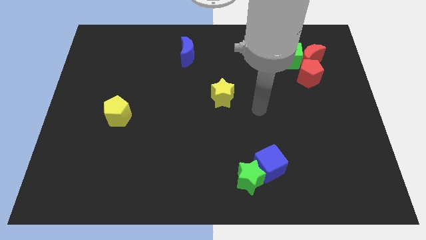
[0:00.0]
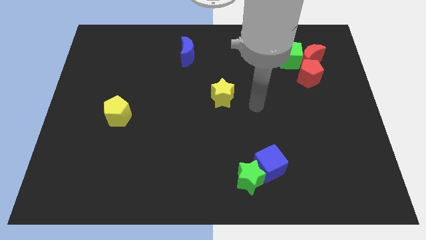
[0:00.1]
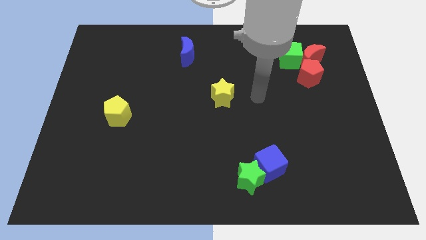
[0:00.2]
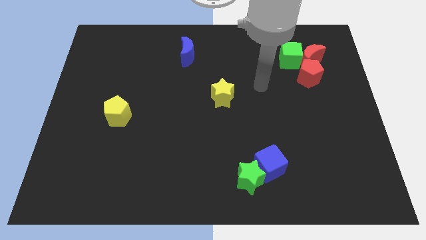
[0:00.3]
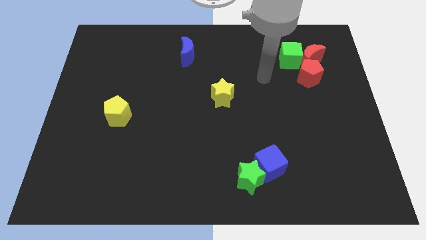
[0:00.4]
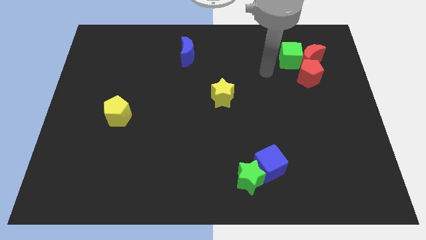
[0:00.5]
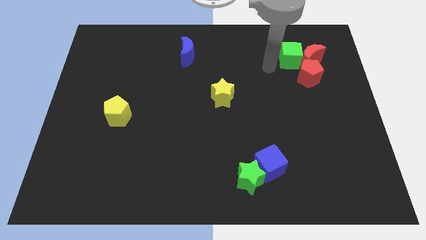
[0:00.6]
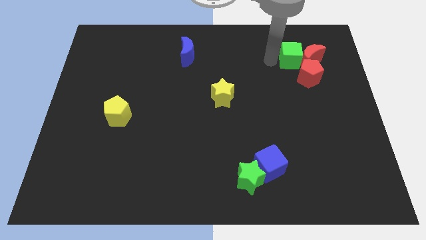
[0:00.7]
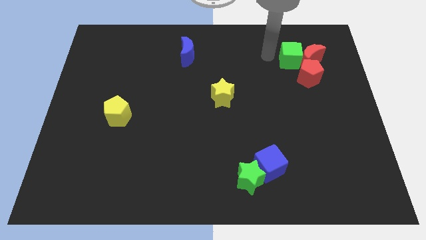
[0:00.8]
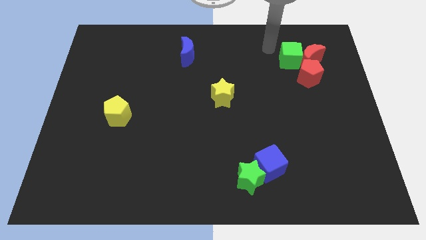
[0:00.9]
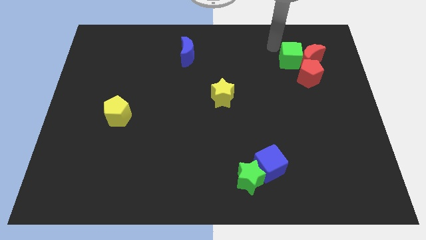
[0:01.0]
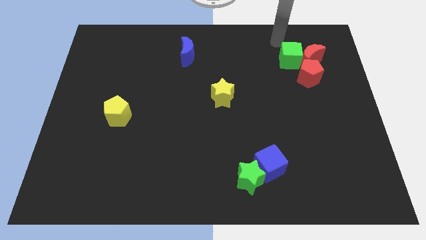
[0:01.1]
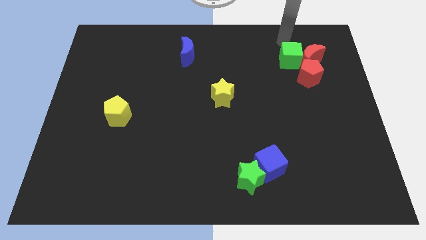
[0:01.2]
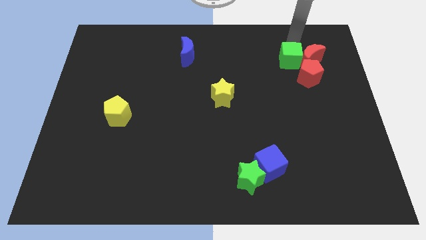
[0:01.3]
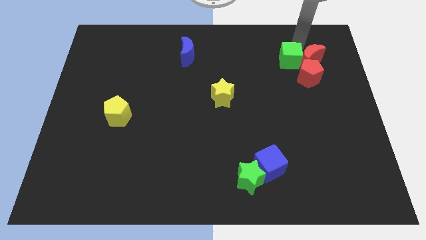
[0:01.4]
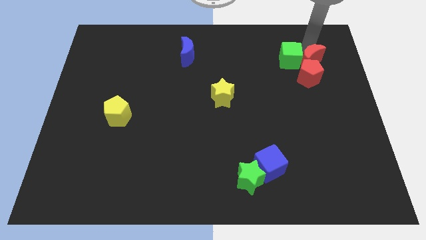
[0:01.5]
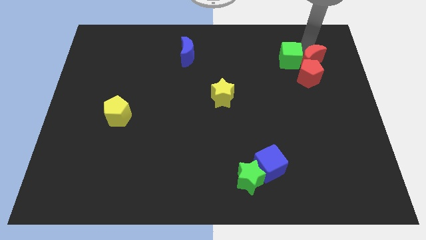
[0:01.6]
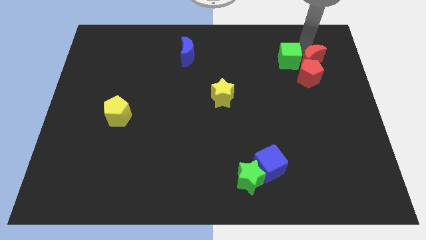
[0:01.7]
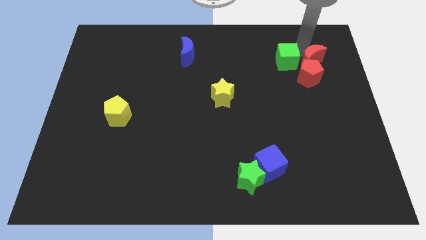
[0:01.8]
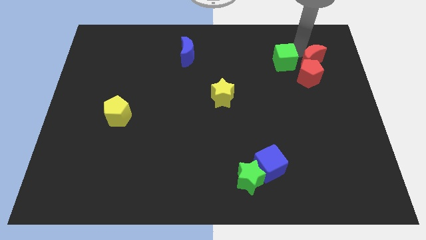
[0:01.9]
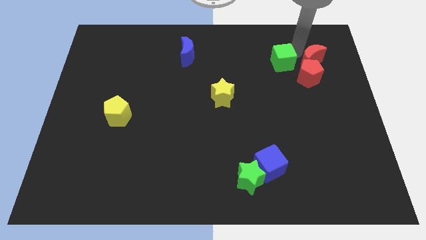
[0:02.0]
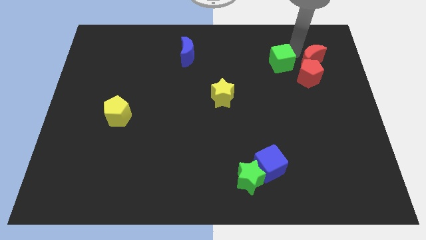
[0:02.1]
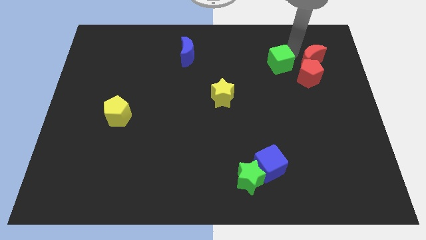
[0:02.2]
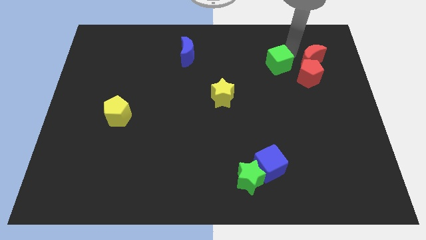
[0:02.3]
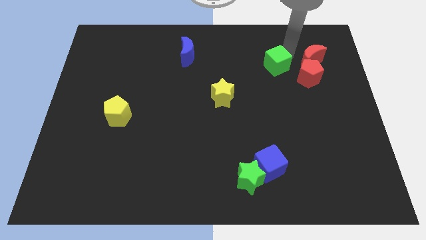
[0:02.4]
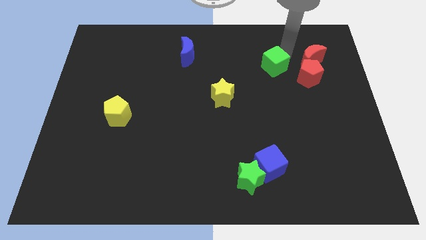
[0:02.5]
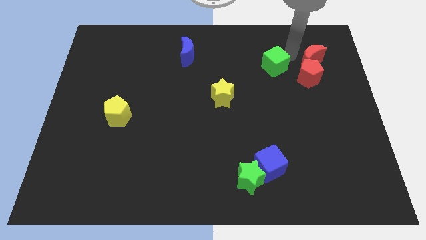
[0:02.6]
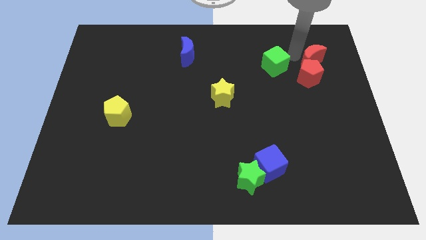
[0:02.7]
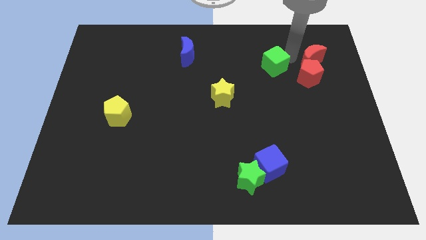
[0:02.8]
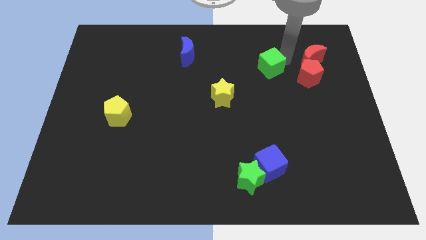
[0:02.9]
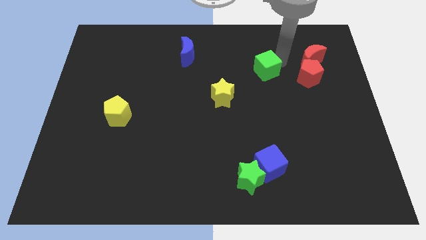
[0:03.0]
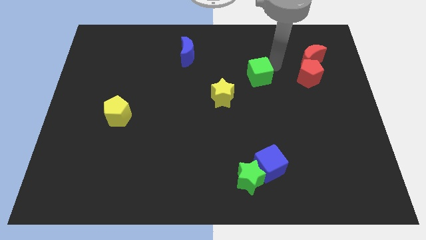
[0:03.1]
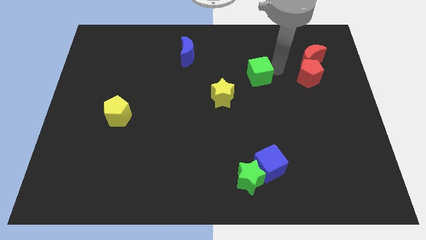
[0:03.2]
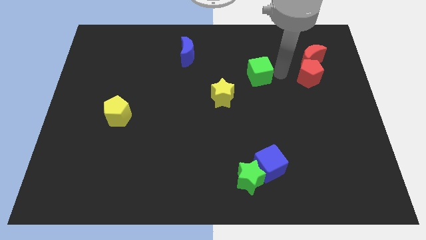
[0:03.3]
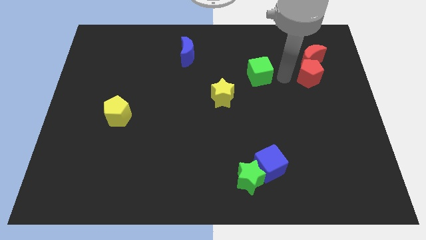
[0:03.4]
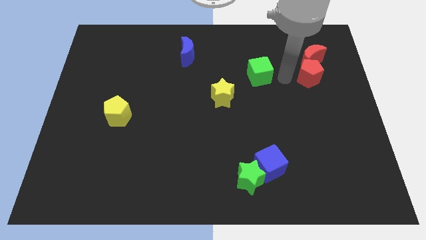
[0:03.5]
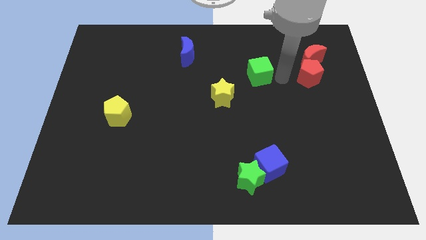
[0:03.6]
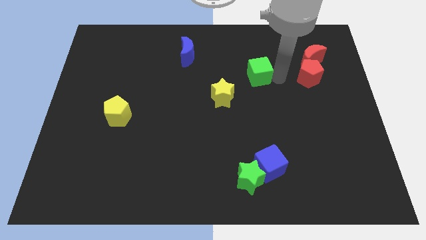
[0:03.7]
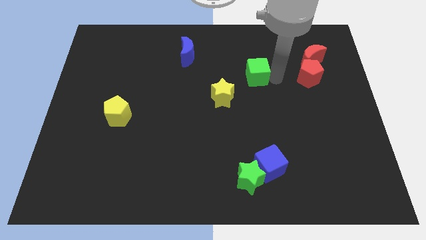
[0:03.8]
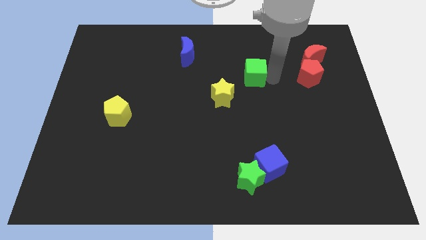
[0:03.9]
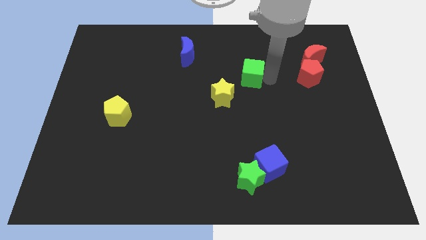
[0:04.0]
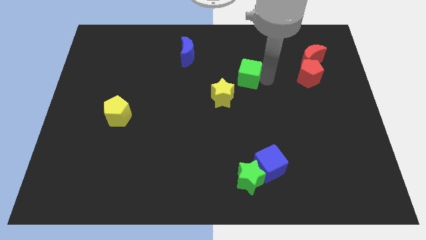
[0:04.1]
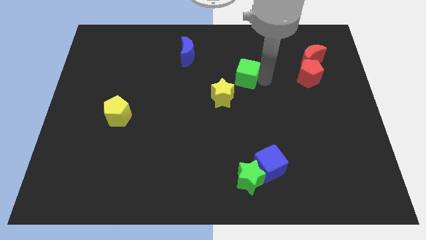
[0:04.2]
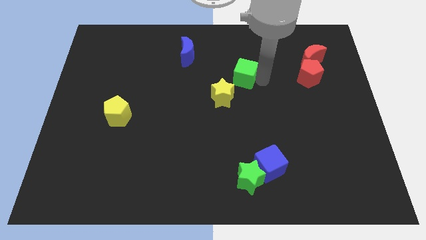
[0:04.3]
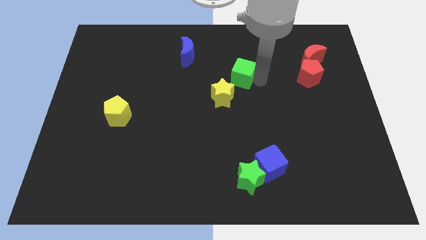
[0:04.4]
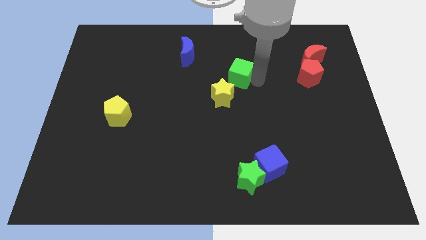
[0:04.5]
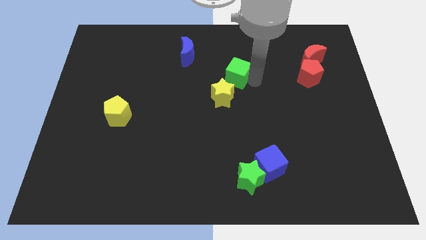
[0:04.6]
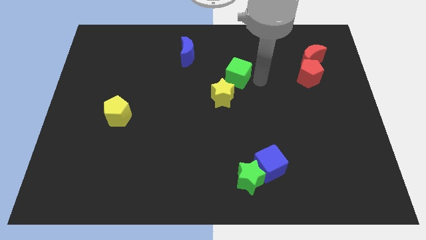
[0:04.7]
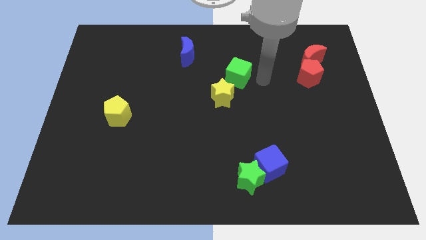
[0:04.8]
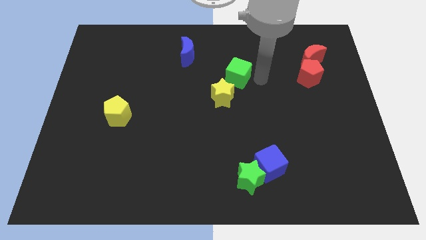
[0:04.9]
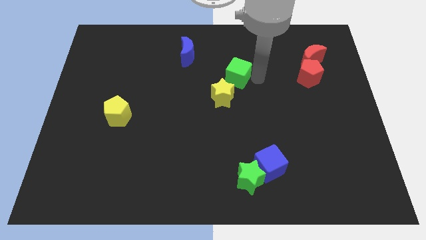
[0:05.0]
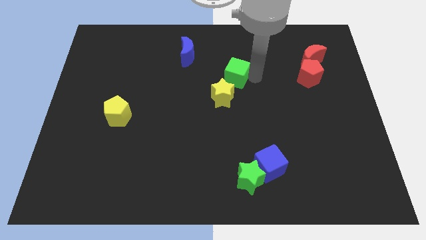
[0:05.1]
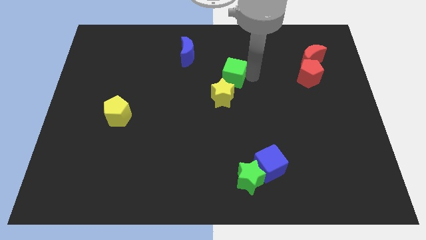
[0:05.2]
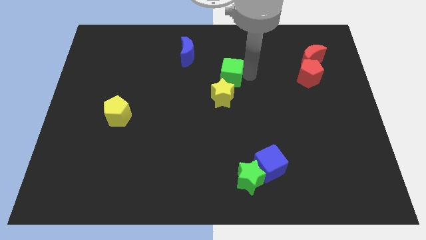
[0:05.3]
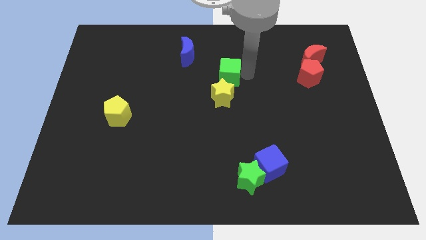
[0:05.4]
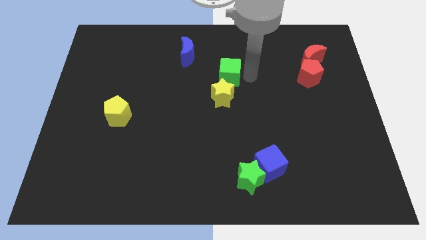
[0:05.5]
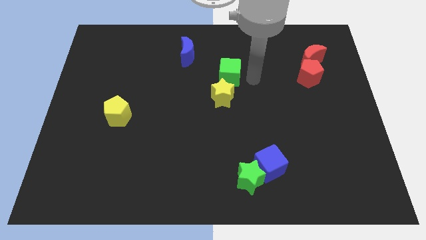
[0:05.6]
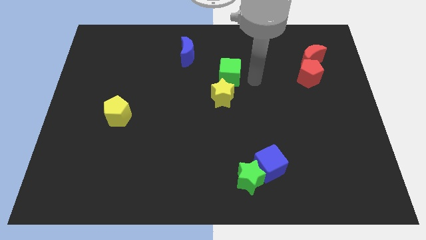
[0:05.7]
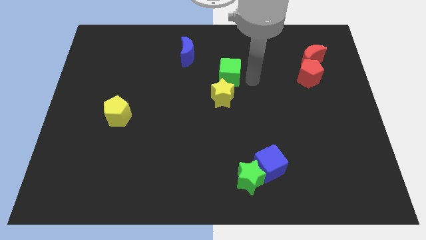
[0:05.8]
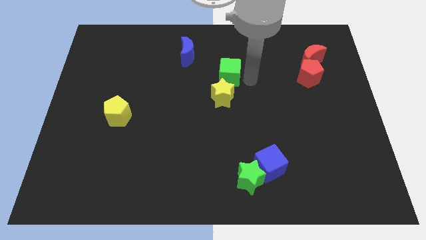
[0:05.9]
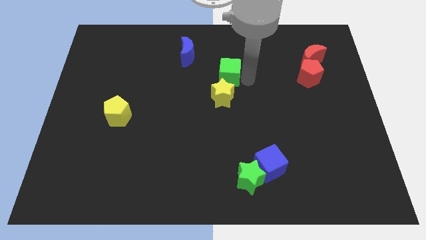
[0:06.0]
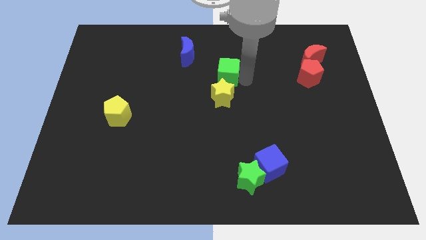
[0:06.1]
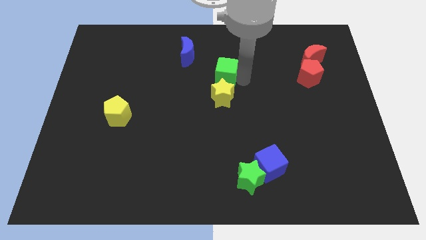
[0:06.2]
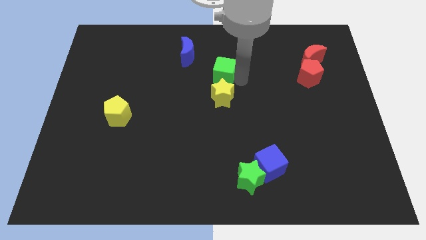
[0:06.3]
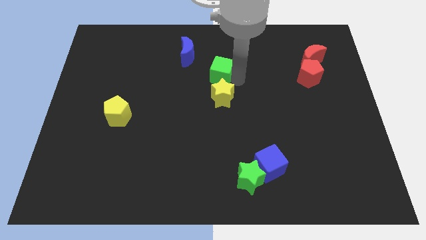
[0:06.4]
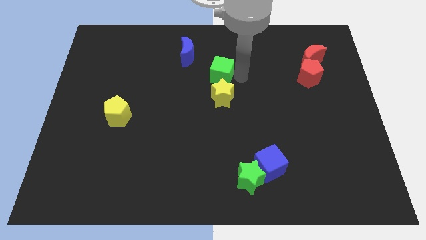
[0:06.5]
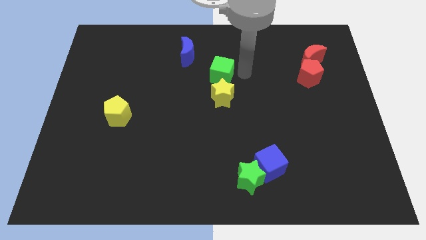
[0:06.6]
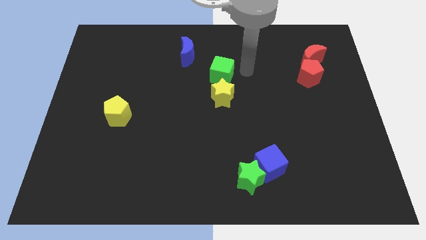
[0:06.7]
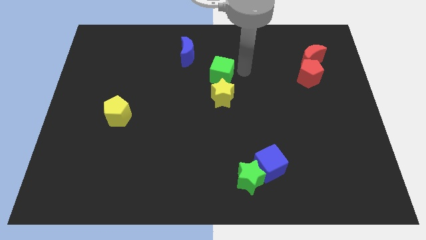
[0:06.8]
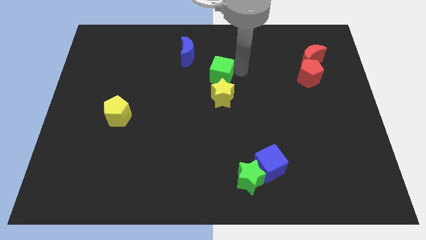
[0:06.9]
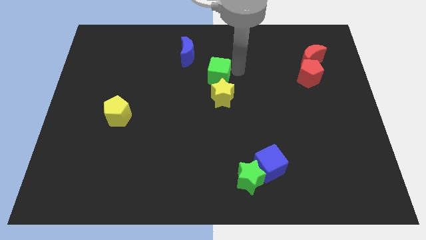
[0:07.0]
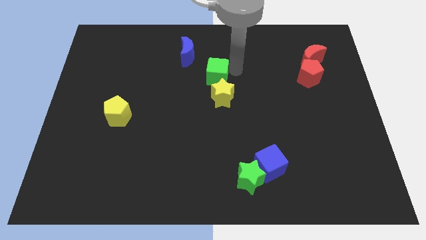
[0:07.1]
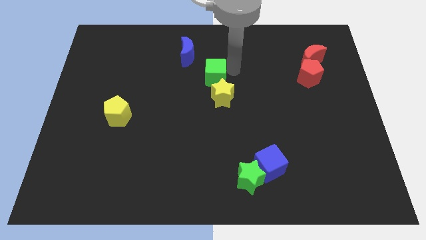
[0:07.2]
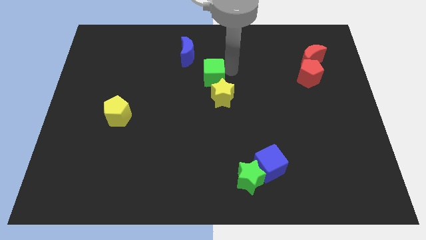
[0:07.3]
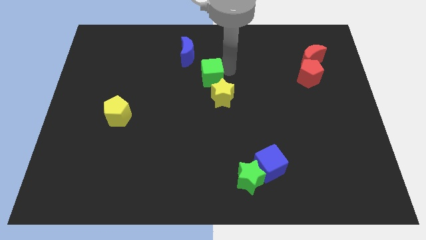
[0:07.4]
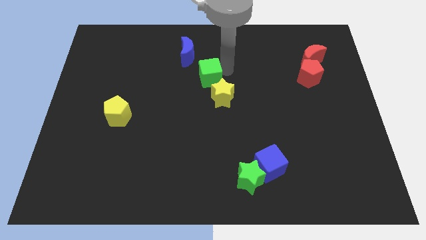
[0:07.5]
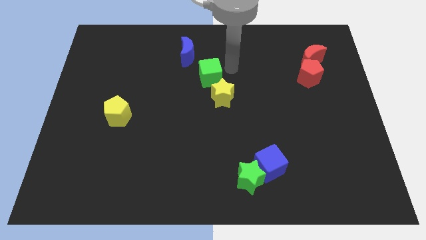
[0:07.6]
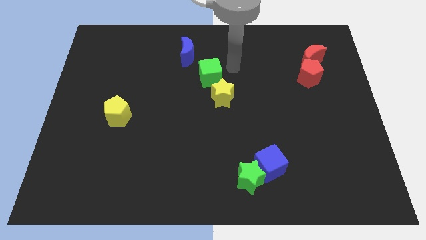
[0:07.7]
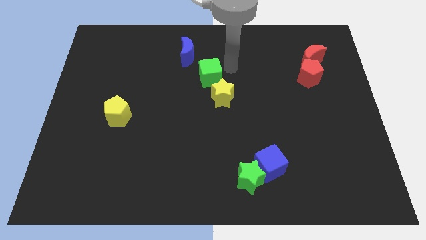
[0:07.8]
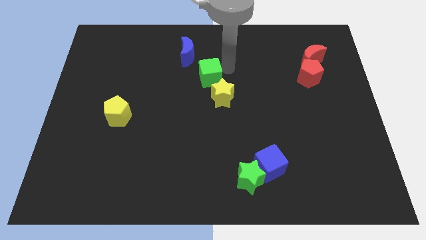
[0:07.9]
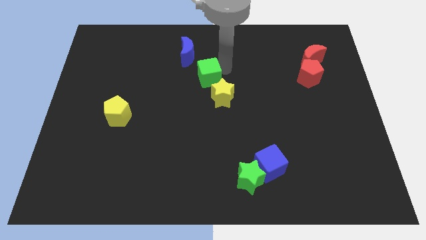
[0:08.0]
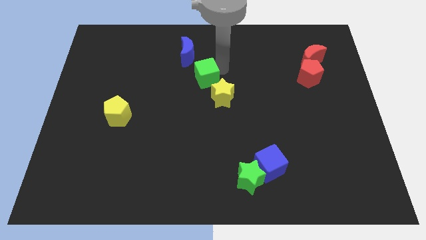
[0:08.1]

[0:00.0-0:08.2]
push the green cube to the bottom of the blue moon

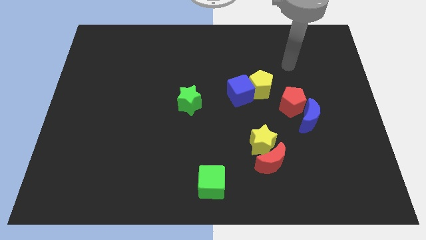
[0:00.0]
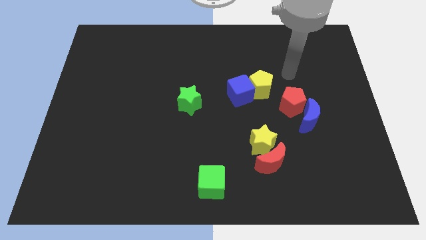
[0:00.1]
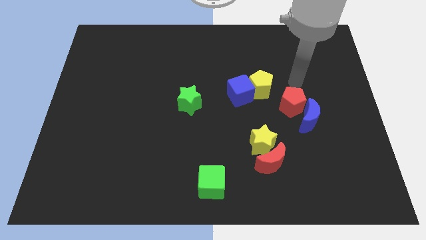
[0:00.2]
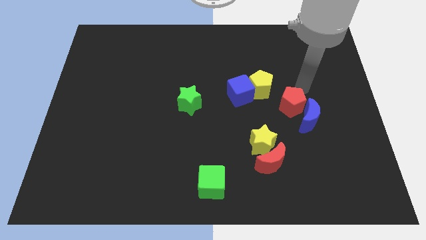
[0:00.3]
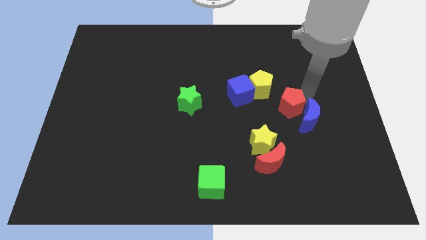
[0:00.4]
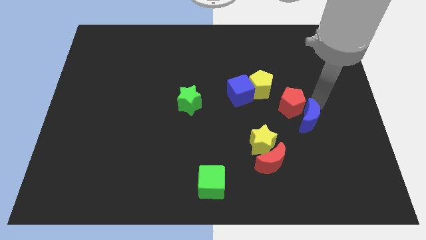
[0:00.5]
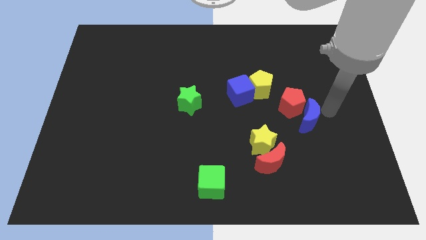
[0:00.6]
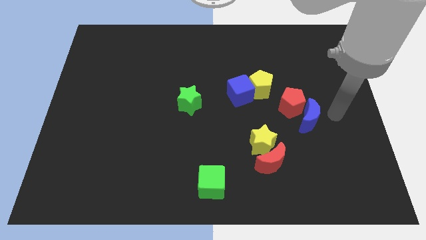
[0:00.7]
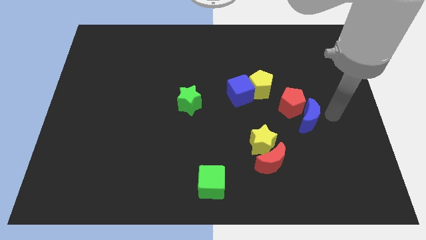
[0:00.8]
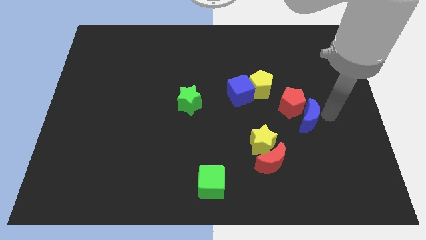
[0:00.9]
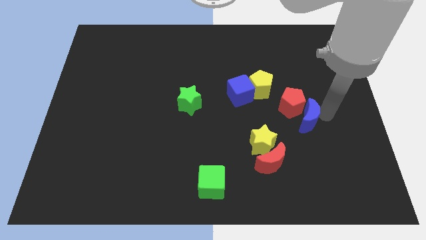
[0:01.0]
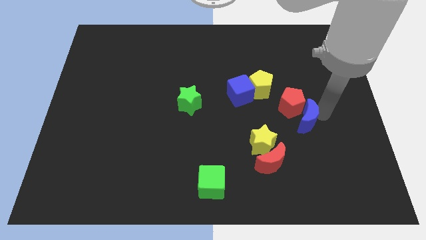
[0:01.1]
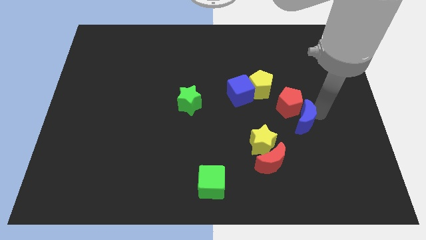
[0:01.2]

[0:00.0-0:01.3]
move the blue moon to the top right of the yellow star
